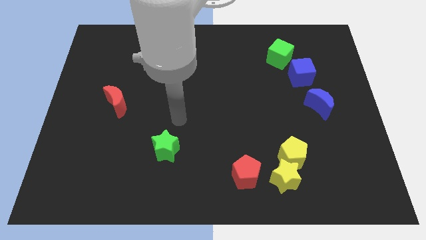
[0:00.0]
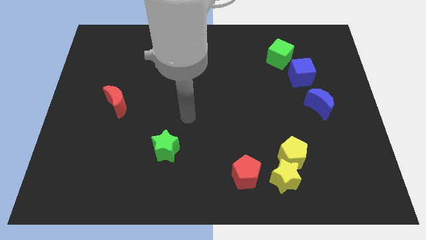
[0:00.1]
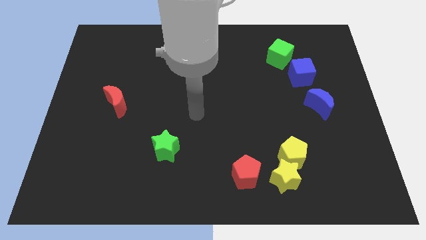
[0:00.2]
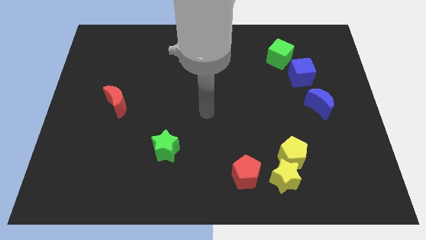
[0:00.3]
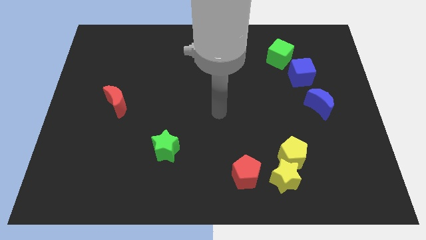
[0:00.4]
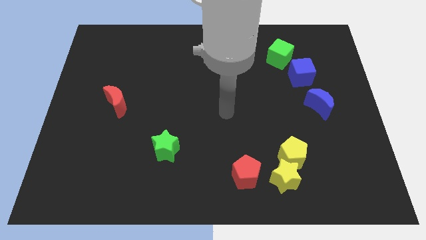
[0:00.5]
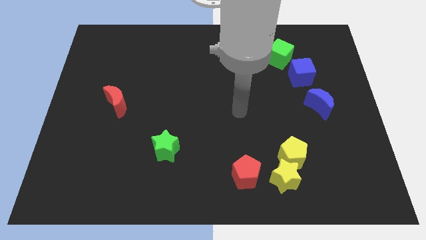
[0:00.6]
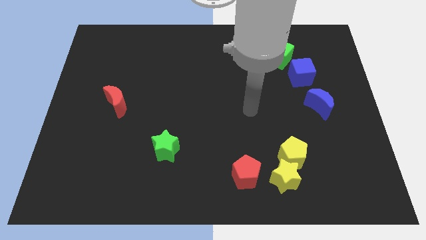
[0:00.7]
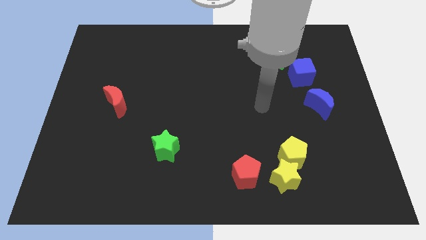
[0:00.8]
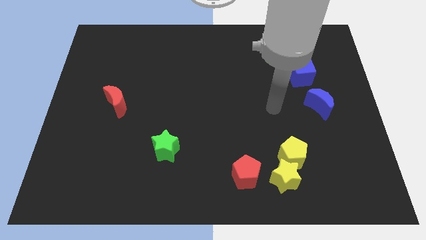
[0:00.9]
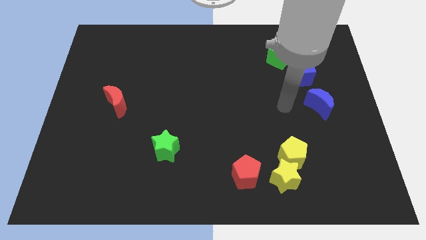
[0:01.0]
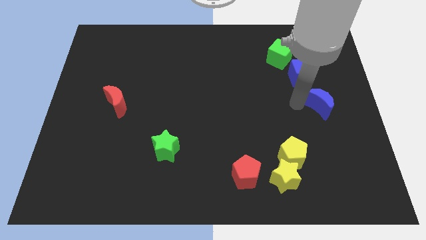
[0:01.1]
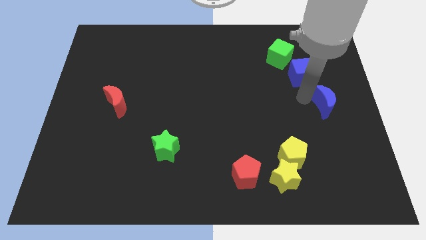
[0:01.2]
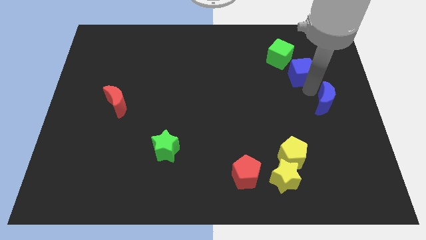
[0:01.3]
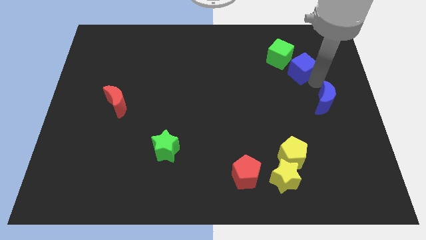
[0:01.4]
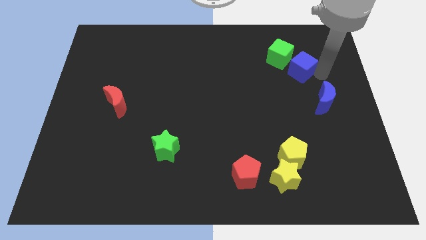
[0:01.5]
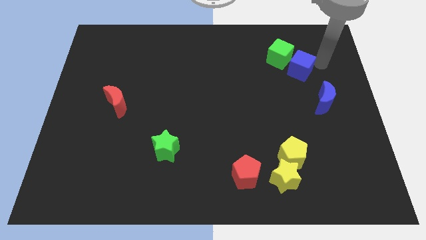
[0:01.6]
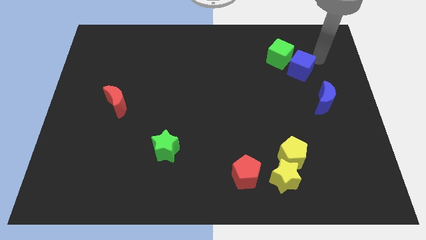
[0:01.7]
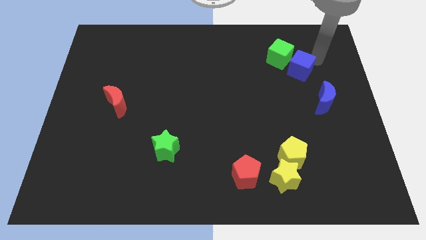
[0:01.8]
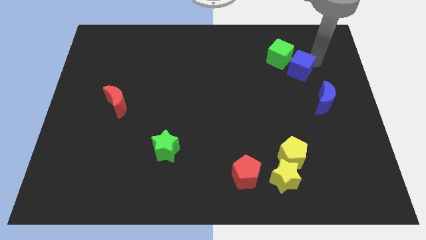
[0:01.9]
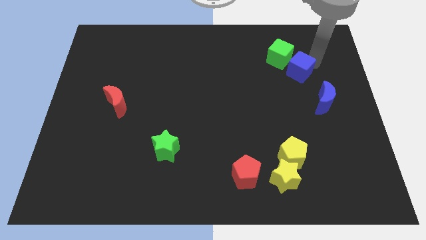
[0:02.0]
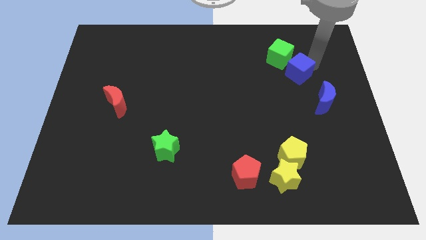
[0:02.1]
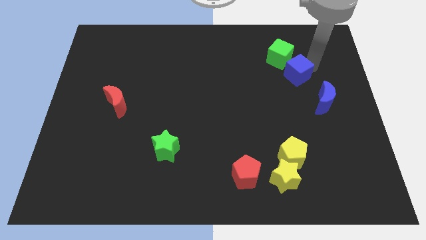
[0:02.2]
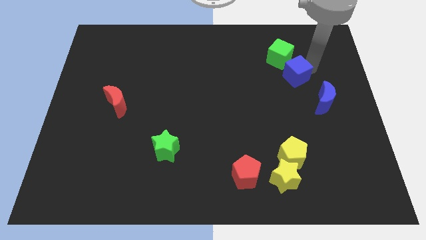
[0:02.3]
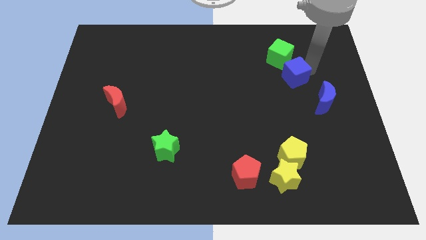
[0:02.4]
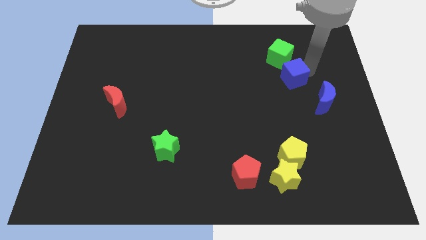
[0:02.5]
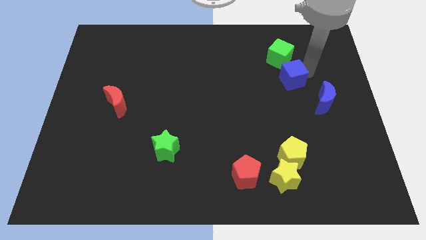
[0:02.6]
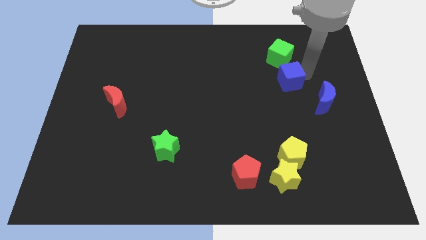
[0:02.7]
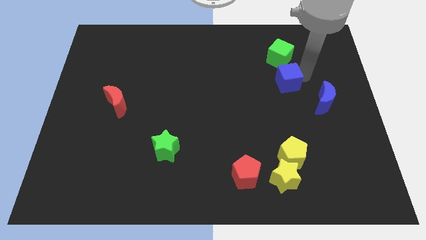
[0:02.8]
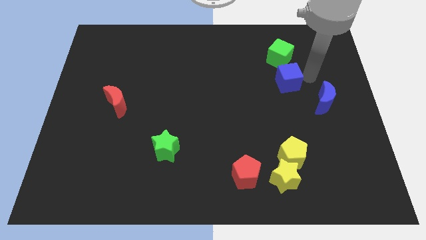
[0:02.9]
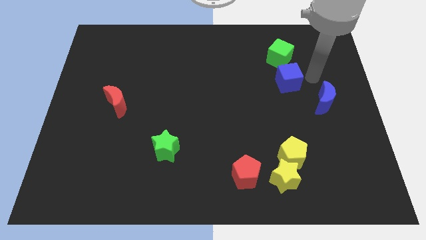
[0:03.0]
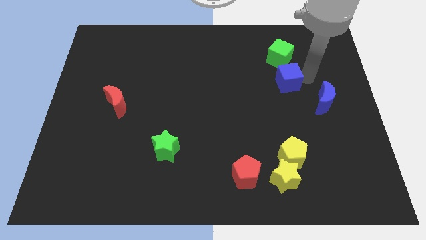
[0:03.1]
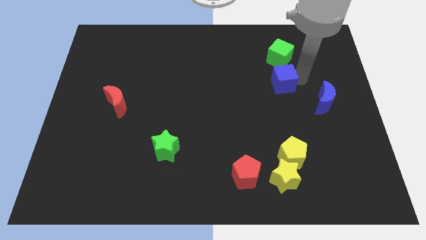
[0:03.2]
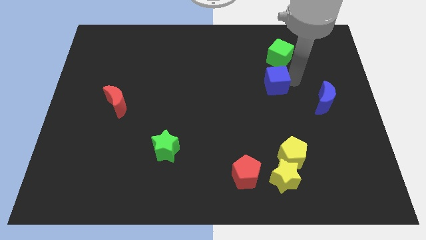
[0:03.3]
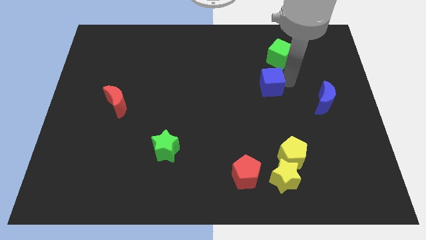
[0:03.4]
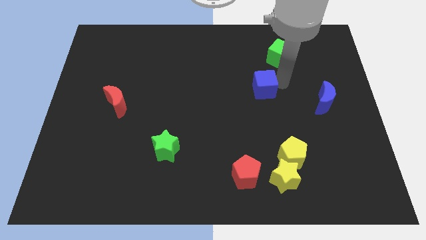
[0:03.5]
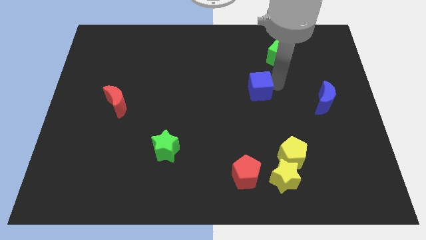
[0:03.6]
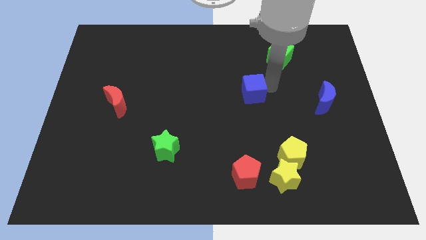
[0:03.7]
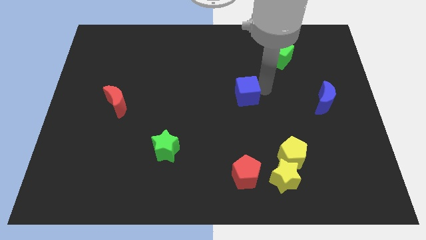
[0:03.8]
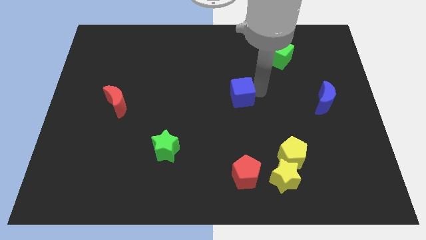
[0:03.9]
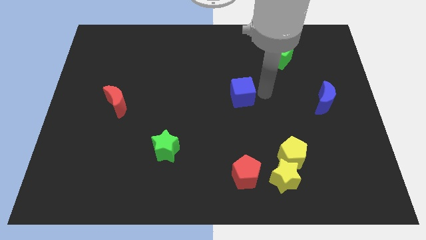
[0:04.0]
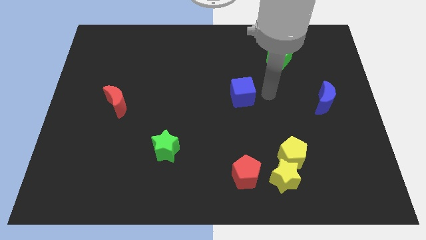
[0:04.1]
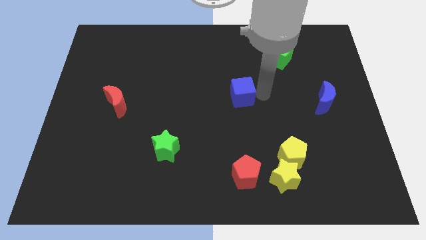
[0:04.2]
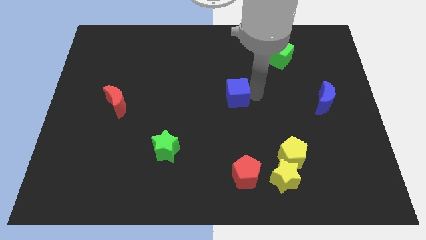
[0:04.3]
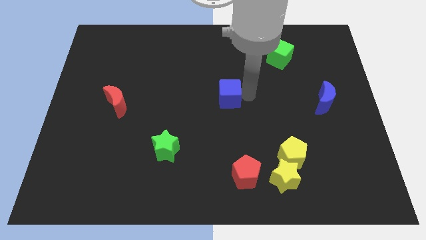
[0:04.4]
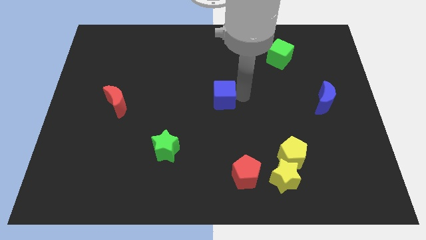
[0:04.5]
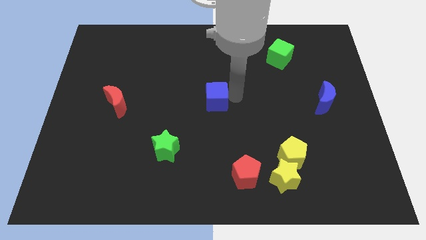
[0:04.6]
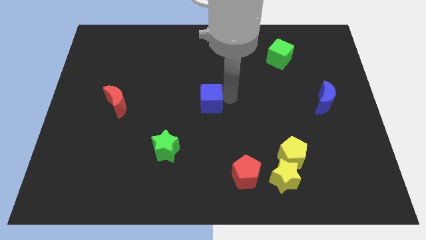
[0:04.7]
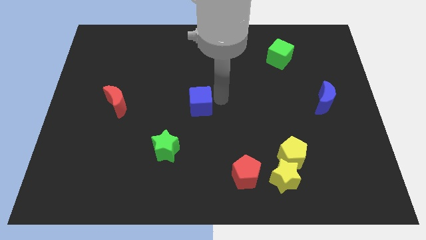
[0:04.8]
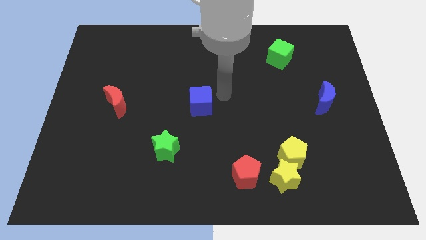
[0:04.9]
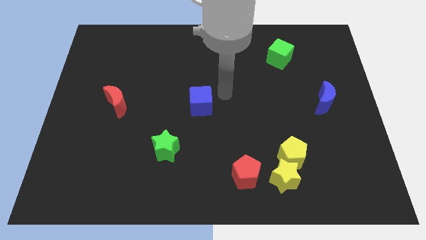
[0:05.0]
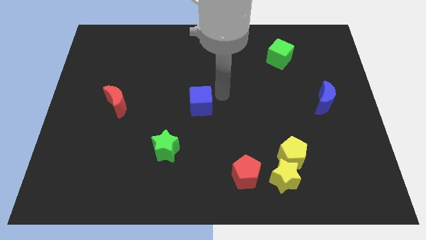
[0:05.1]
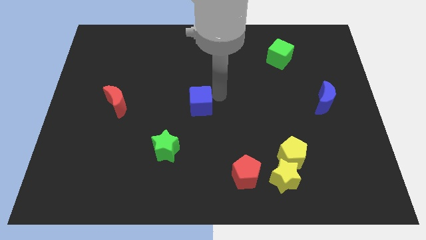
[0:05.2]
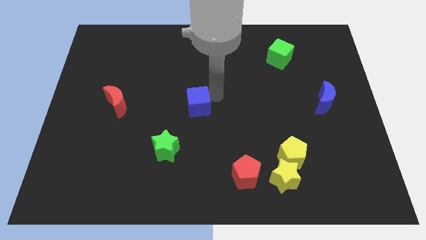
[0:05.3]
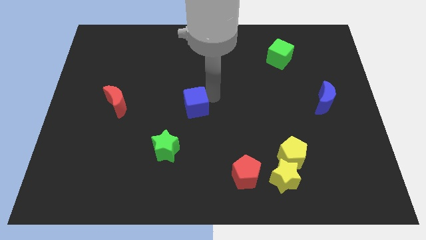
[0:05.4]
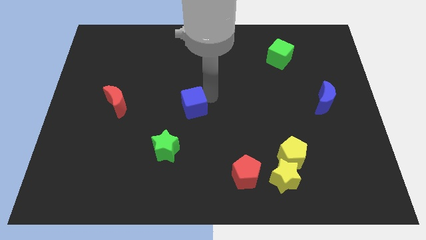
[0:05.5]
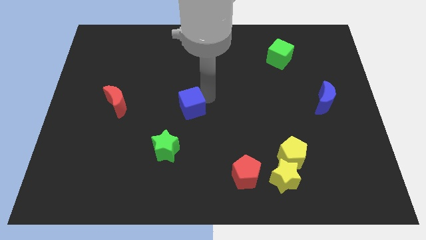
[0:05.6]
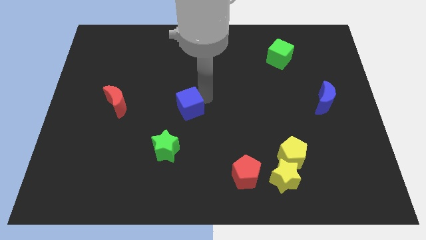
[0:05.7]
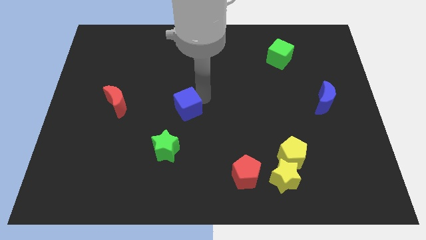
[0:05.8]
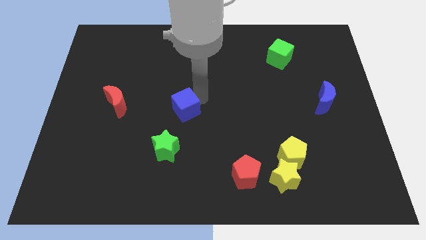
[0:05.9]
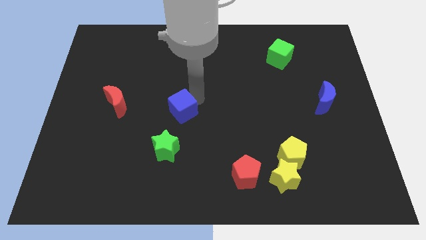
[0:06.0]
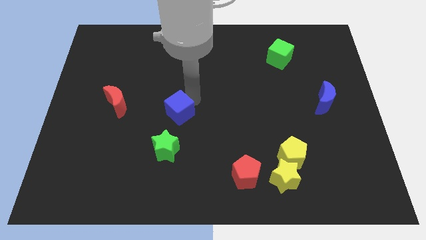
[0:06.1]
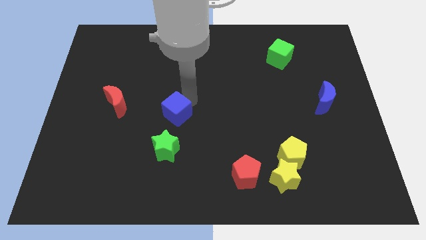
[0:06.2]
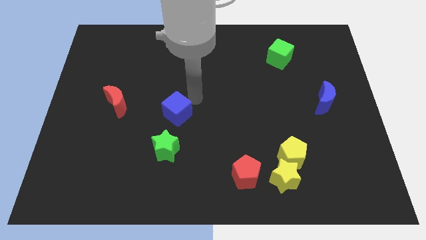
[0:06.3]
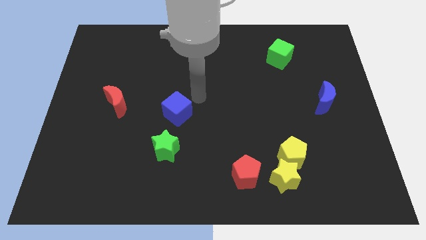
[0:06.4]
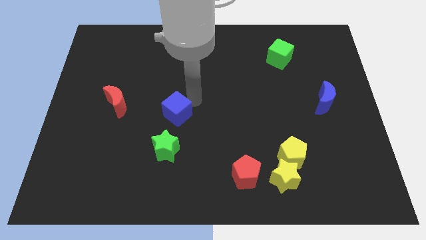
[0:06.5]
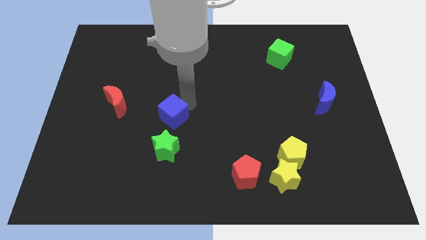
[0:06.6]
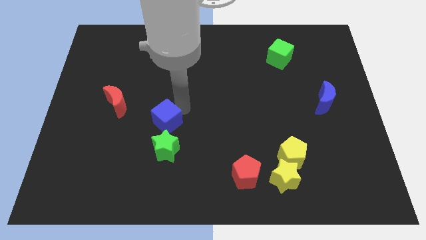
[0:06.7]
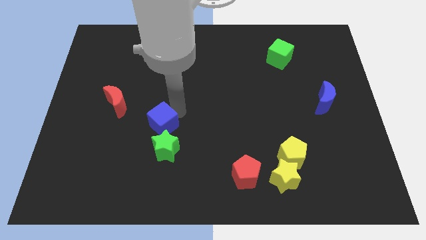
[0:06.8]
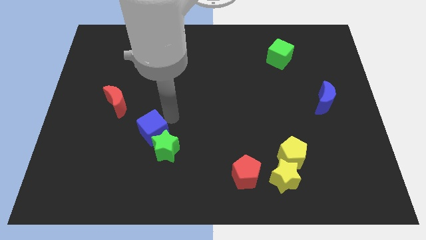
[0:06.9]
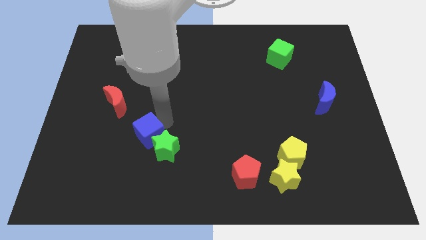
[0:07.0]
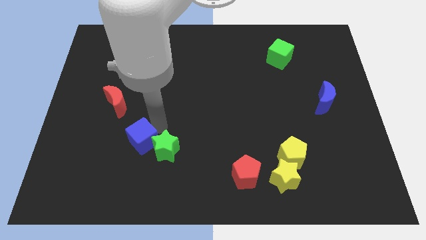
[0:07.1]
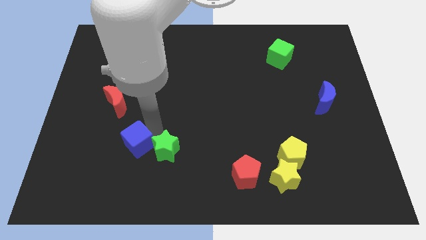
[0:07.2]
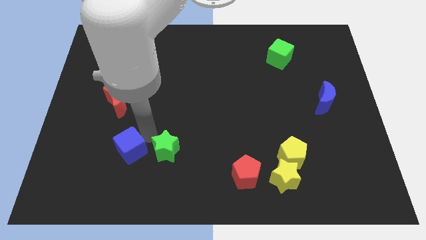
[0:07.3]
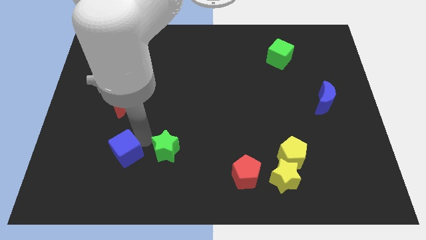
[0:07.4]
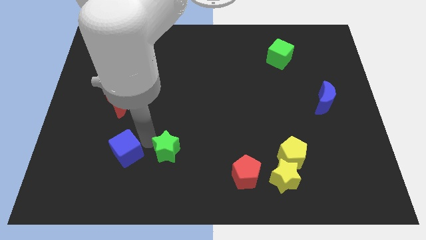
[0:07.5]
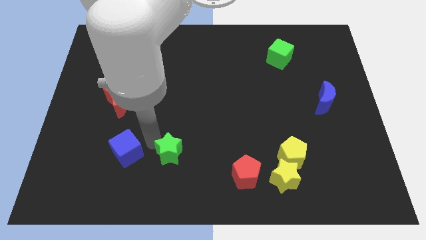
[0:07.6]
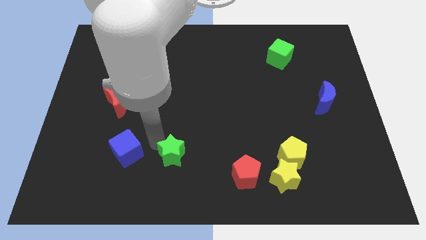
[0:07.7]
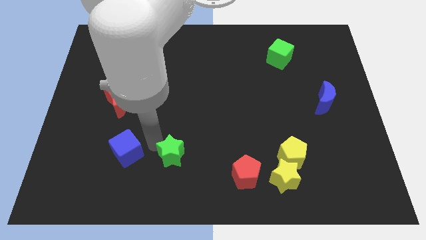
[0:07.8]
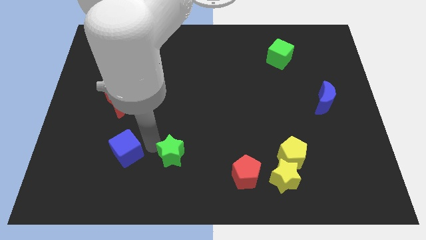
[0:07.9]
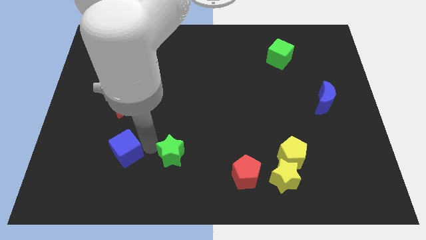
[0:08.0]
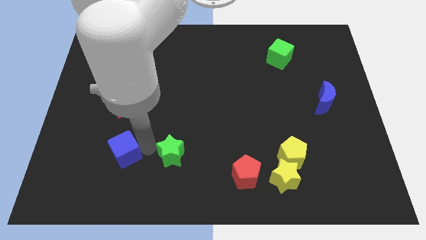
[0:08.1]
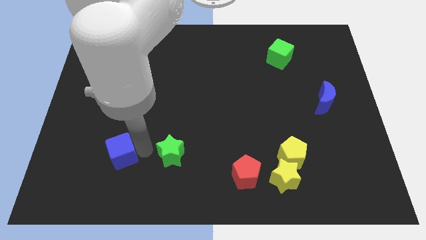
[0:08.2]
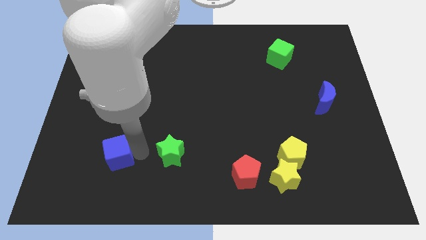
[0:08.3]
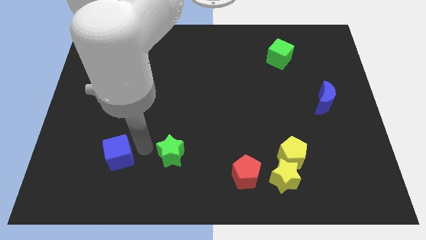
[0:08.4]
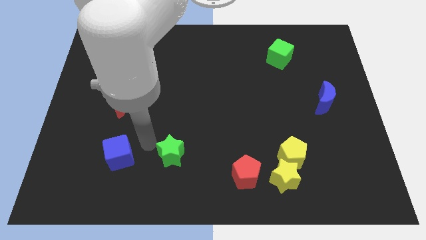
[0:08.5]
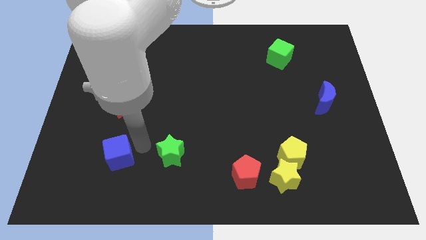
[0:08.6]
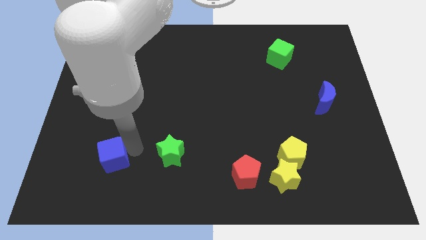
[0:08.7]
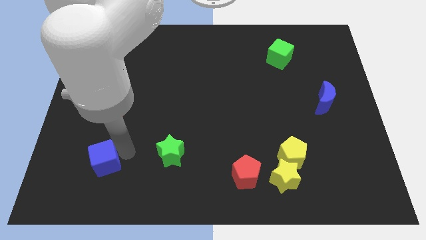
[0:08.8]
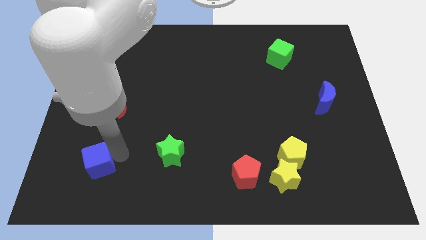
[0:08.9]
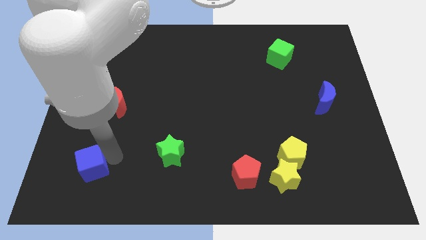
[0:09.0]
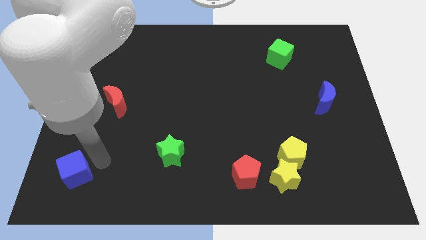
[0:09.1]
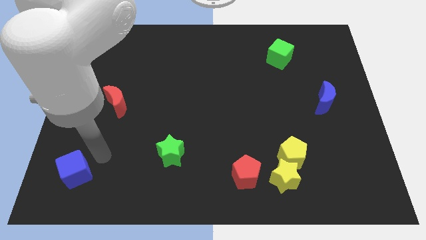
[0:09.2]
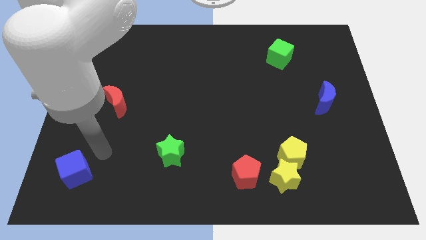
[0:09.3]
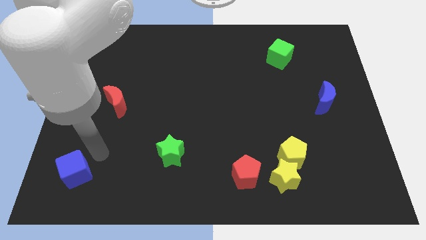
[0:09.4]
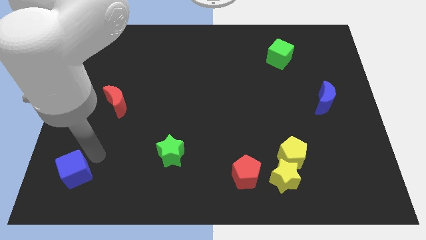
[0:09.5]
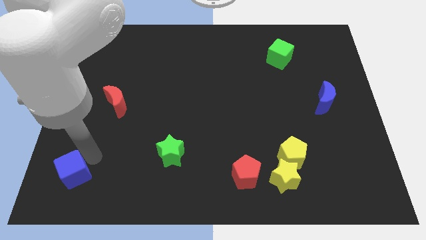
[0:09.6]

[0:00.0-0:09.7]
move the blue cube to the bottom left corner
